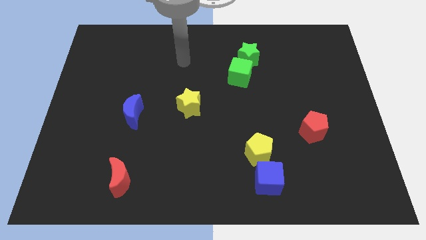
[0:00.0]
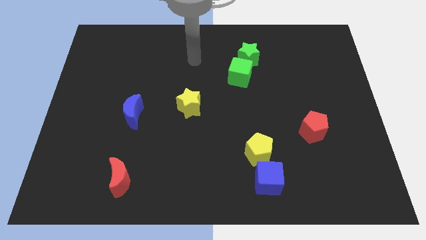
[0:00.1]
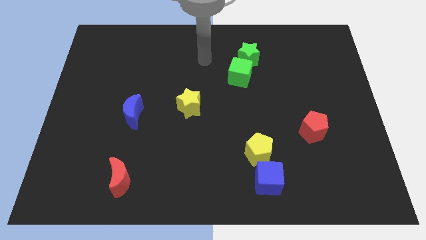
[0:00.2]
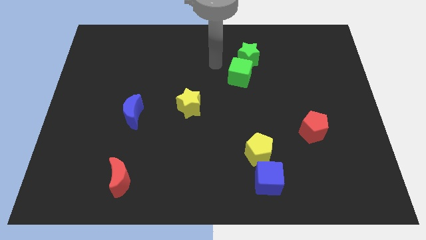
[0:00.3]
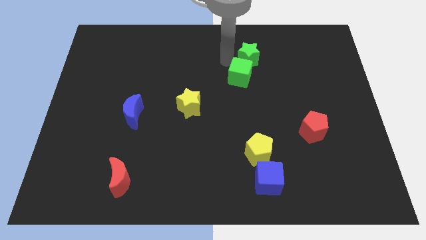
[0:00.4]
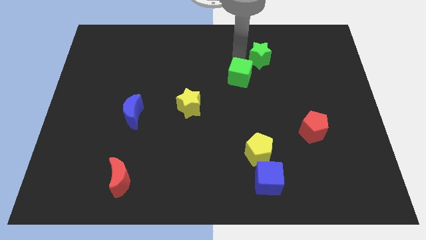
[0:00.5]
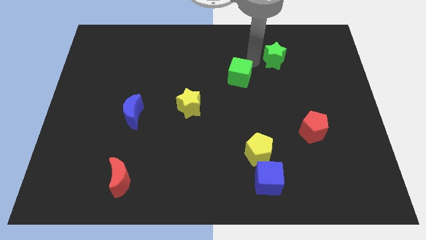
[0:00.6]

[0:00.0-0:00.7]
move the green cube away from the green star

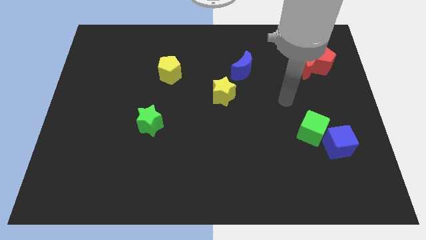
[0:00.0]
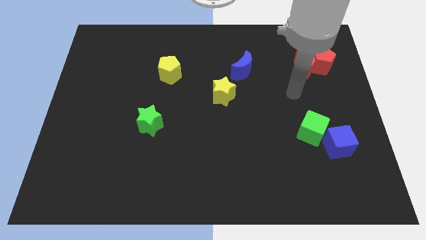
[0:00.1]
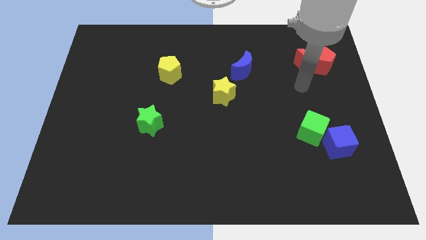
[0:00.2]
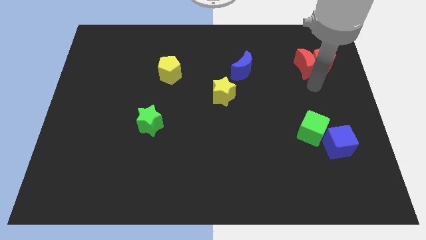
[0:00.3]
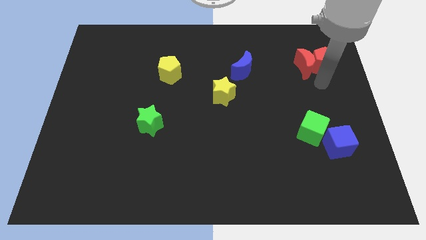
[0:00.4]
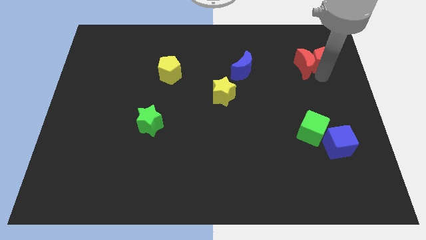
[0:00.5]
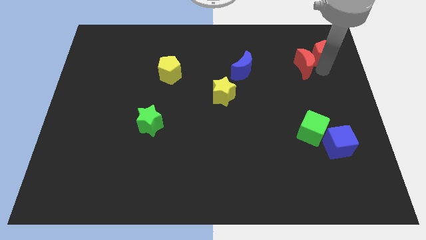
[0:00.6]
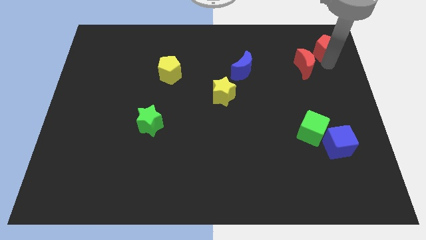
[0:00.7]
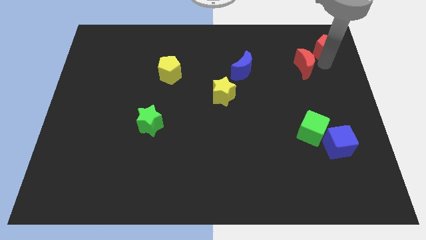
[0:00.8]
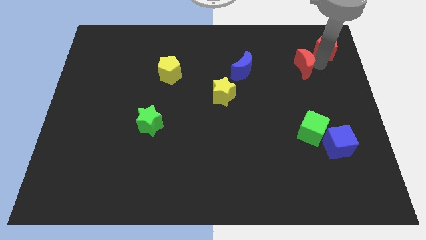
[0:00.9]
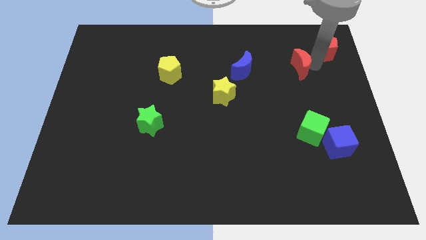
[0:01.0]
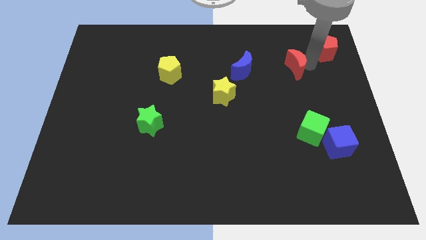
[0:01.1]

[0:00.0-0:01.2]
separate the red moon from the red pentagon

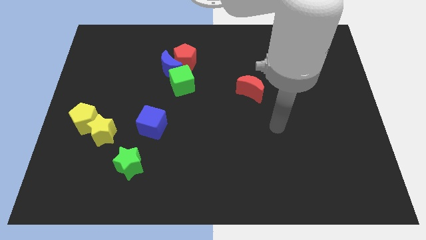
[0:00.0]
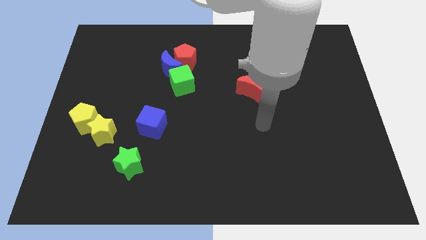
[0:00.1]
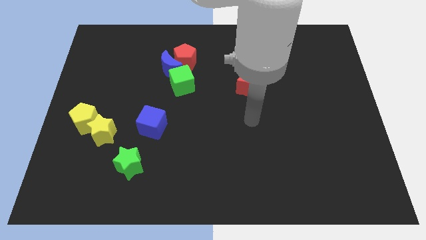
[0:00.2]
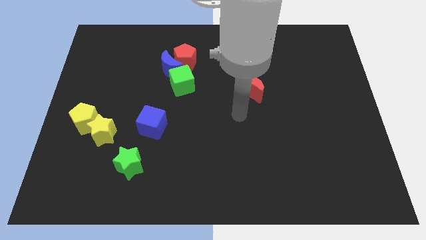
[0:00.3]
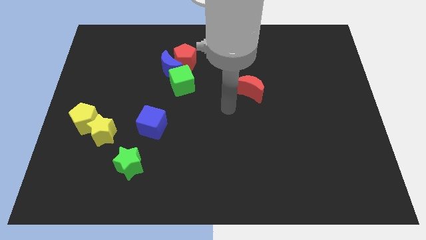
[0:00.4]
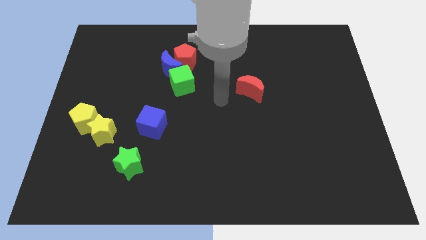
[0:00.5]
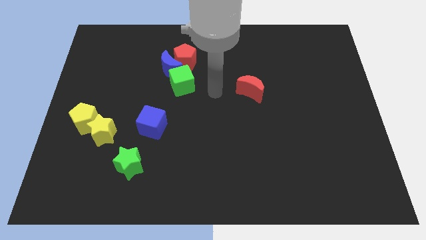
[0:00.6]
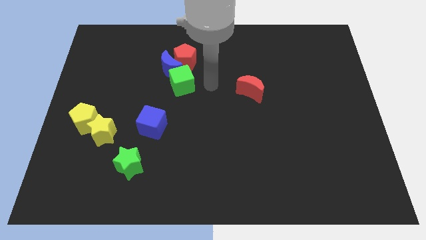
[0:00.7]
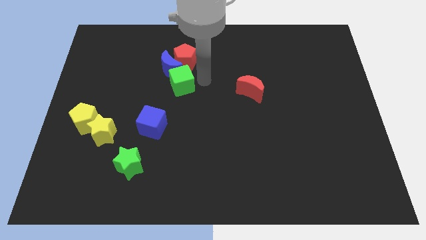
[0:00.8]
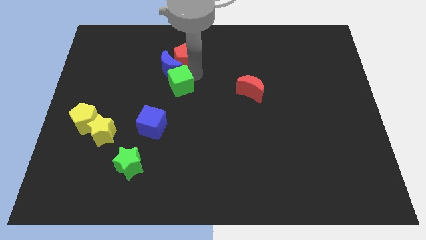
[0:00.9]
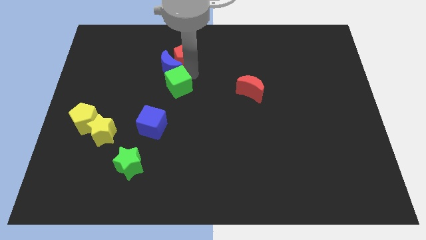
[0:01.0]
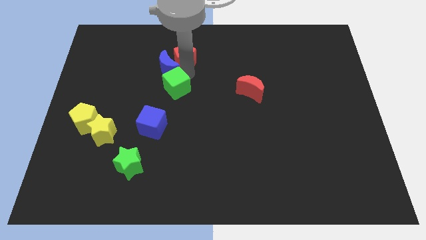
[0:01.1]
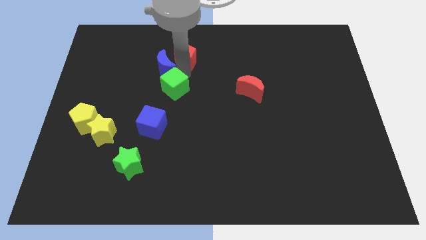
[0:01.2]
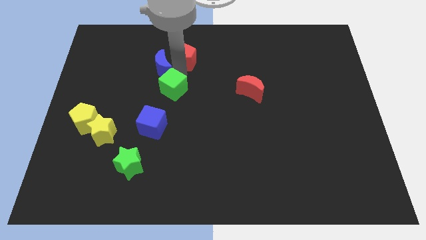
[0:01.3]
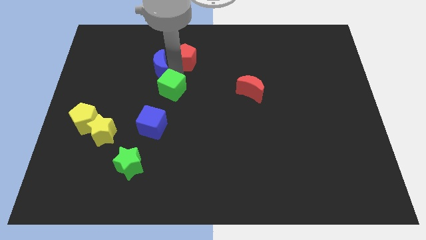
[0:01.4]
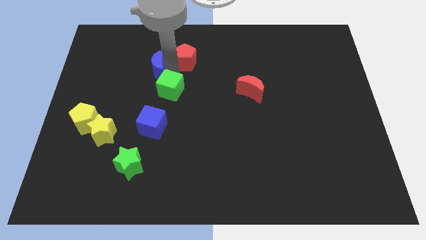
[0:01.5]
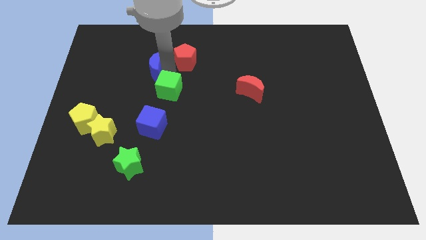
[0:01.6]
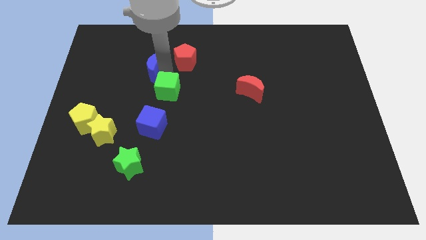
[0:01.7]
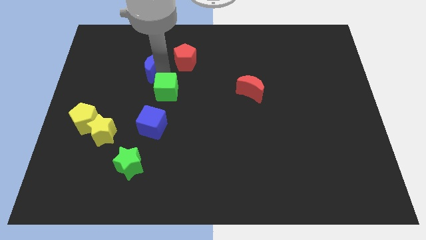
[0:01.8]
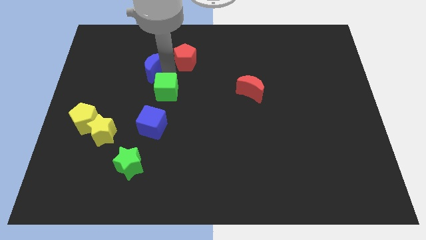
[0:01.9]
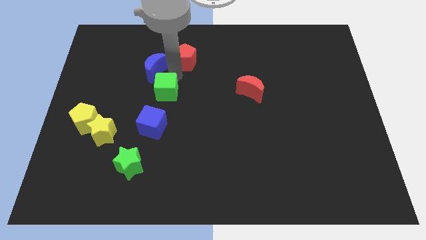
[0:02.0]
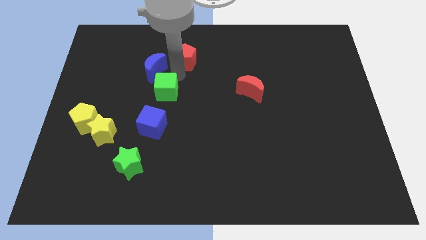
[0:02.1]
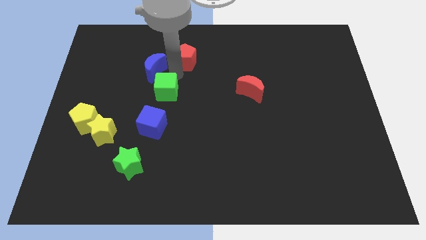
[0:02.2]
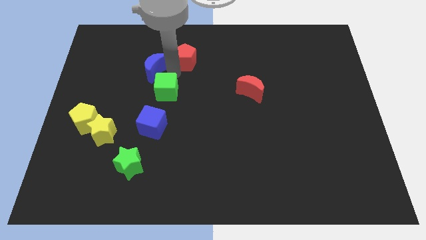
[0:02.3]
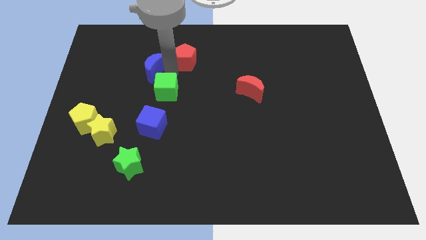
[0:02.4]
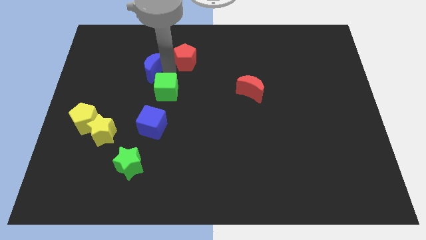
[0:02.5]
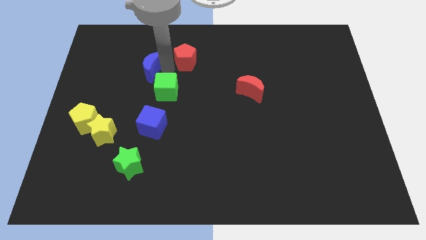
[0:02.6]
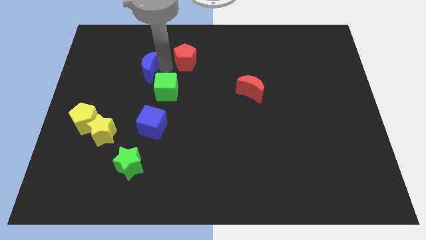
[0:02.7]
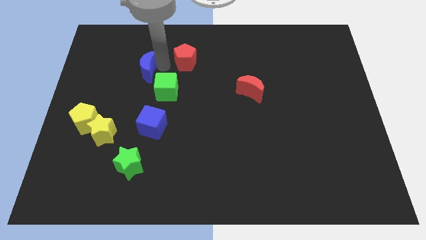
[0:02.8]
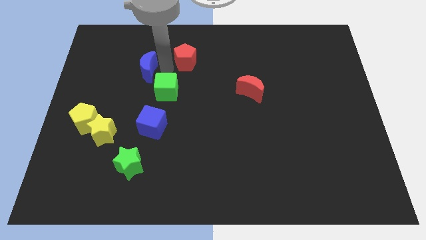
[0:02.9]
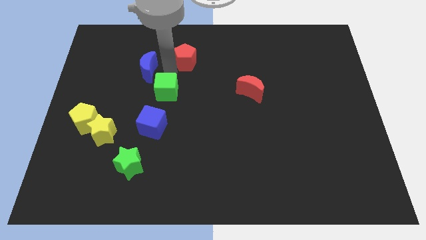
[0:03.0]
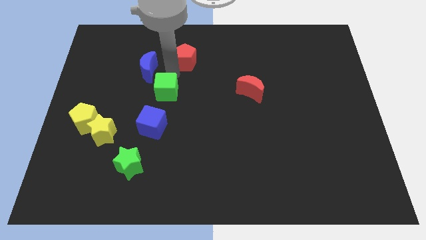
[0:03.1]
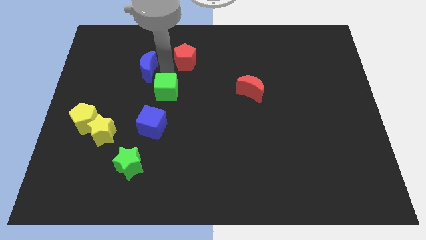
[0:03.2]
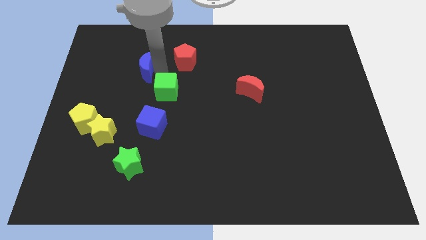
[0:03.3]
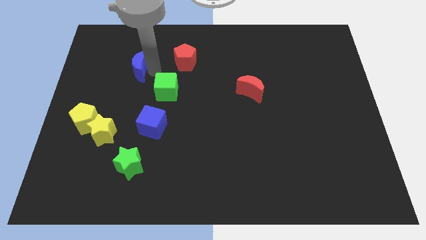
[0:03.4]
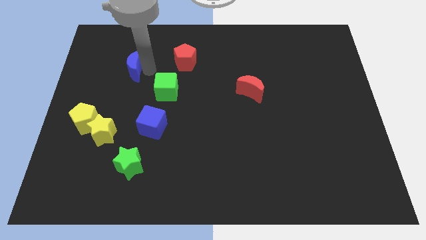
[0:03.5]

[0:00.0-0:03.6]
move the blue moon away from the red pentagon and green cube

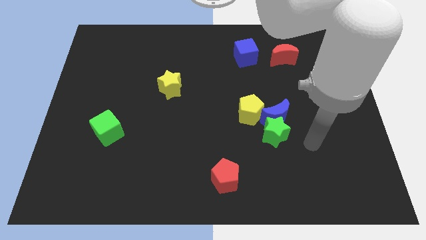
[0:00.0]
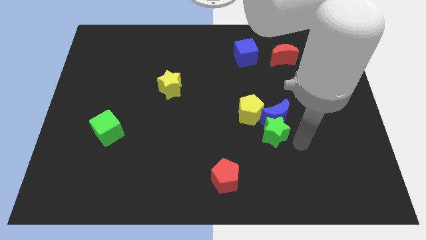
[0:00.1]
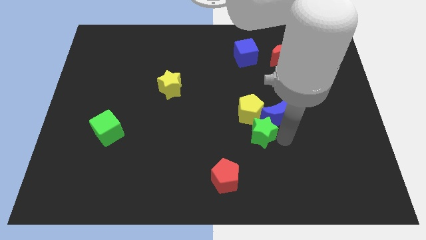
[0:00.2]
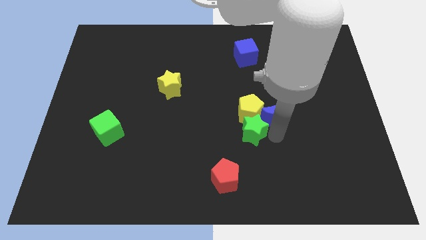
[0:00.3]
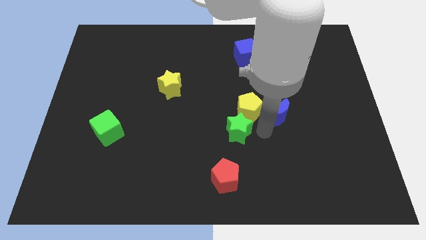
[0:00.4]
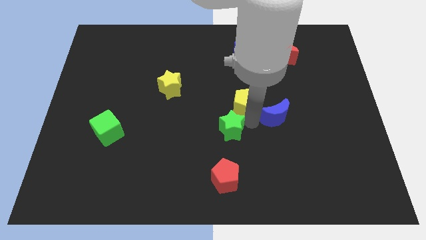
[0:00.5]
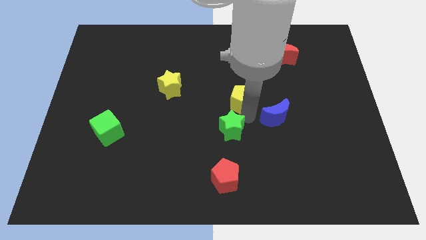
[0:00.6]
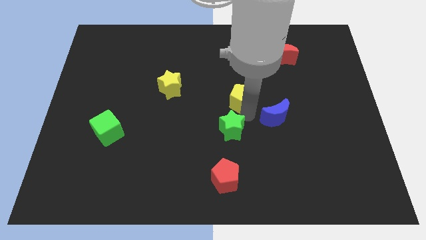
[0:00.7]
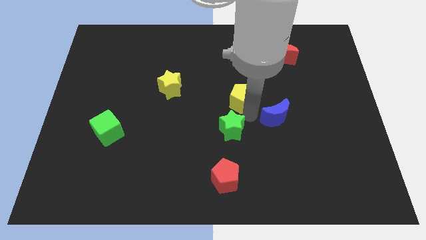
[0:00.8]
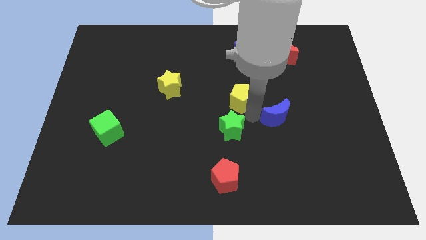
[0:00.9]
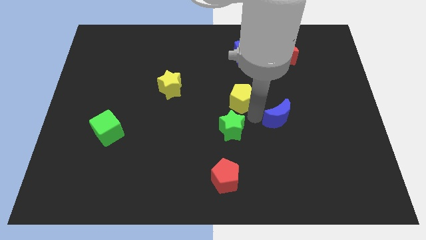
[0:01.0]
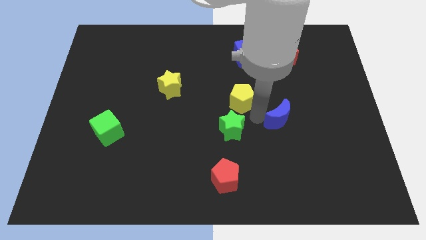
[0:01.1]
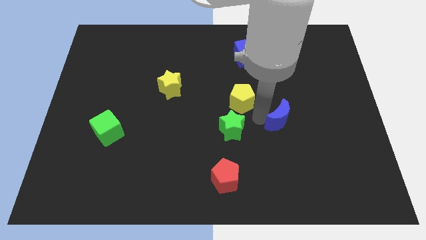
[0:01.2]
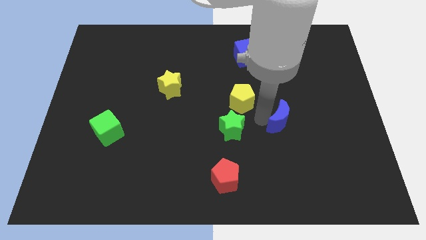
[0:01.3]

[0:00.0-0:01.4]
separate the blue moon from the green star and yellow pentagon

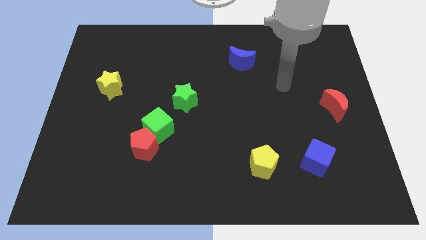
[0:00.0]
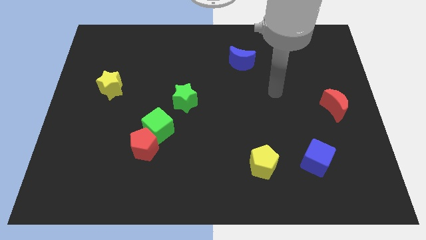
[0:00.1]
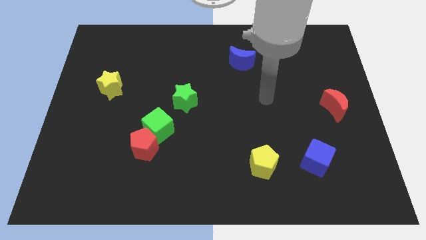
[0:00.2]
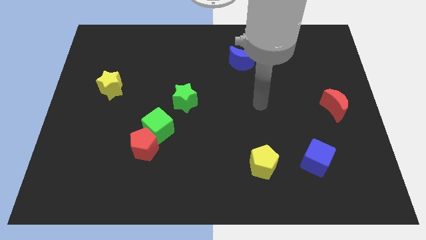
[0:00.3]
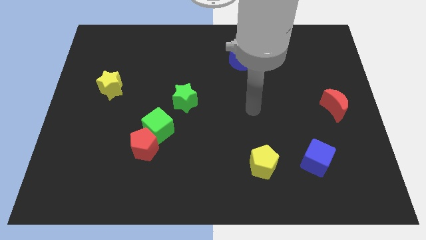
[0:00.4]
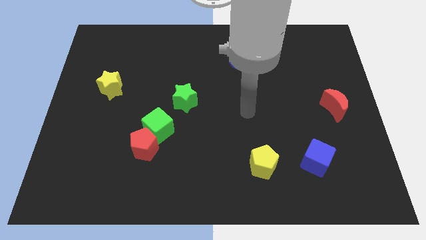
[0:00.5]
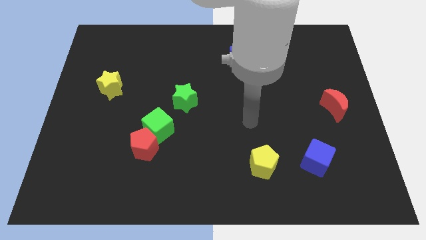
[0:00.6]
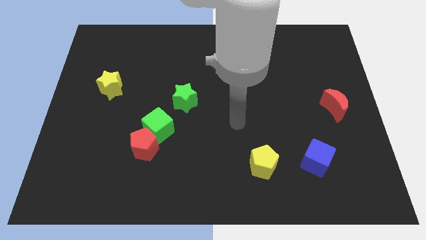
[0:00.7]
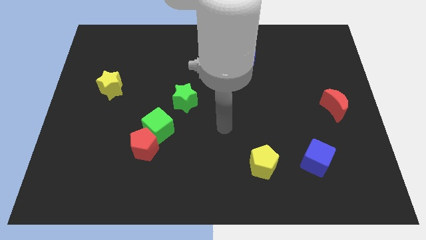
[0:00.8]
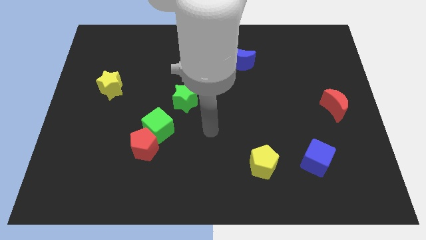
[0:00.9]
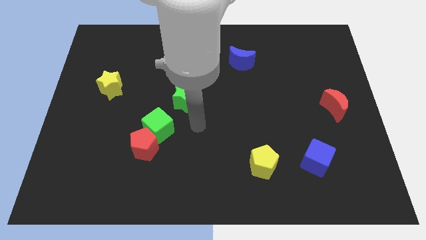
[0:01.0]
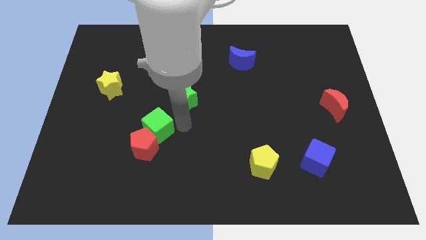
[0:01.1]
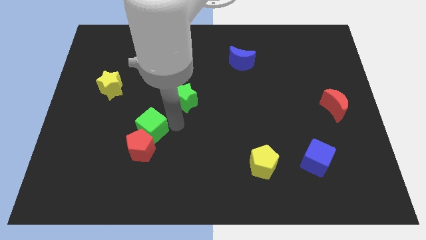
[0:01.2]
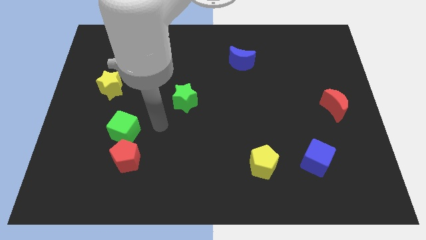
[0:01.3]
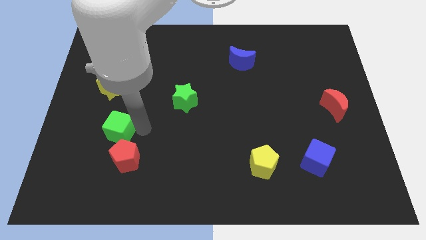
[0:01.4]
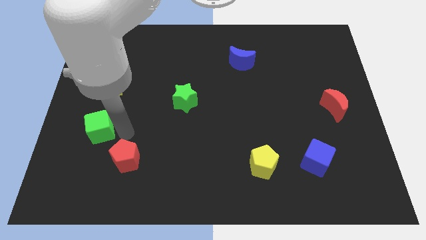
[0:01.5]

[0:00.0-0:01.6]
separate the red pentagon from the green cube

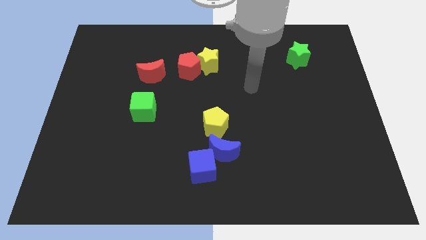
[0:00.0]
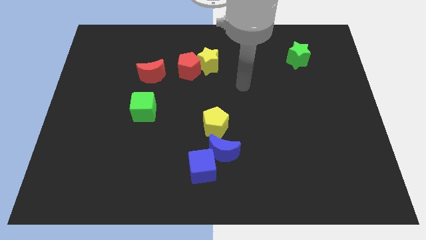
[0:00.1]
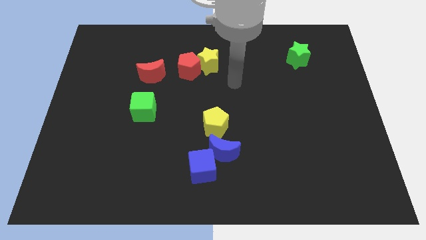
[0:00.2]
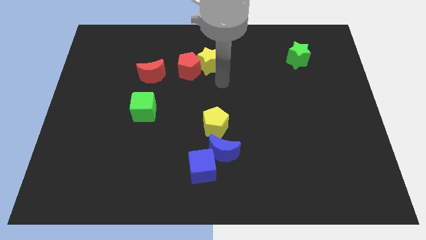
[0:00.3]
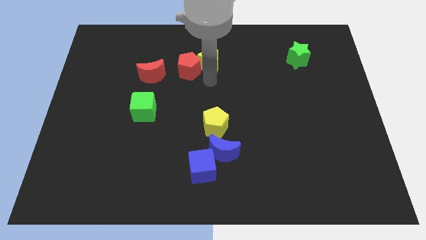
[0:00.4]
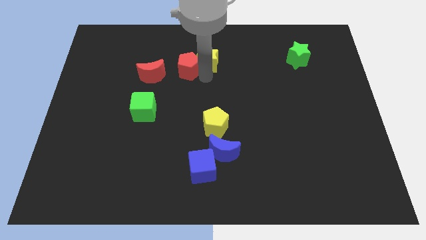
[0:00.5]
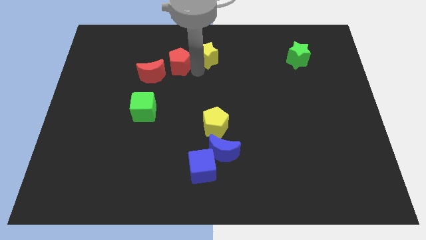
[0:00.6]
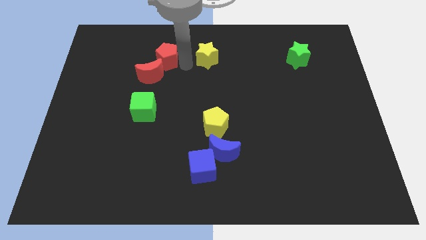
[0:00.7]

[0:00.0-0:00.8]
pull the yellow star apart from the red pentagon
